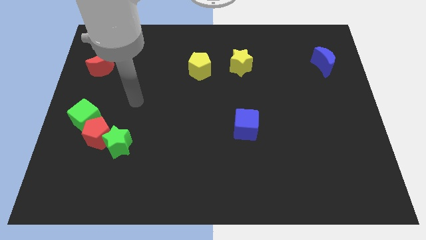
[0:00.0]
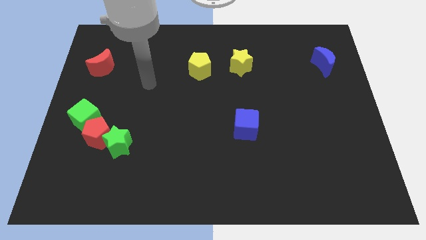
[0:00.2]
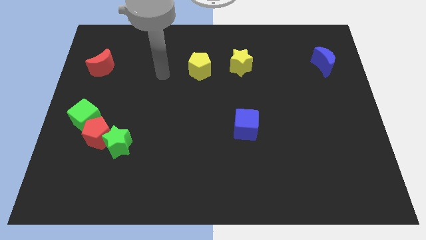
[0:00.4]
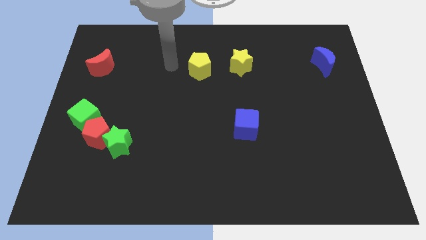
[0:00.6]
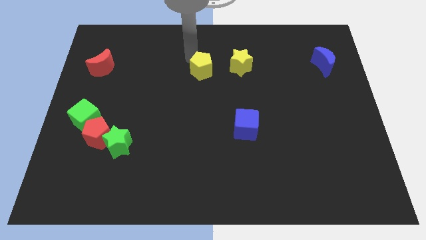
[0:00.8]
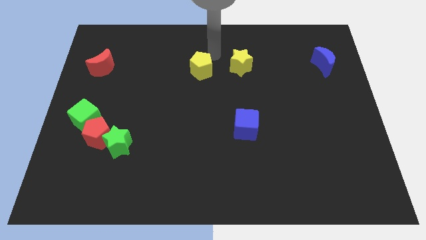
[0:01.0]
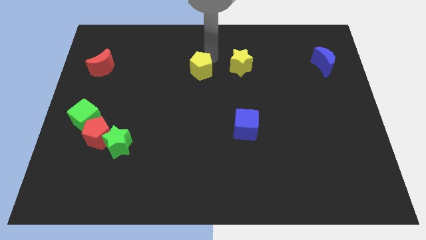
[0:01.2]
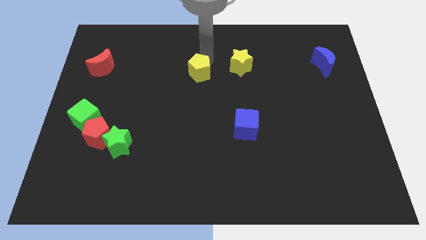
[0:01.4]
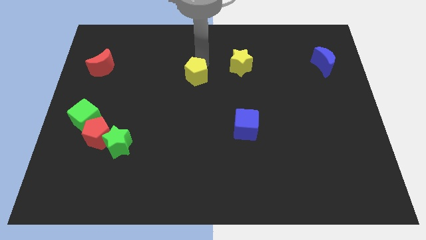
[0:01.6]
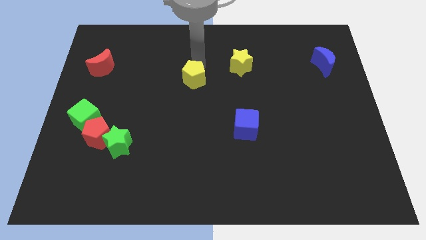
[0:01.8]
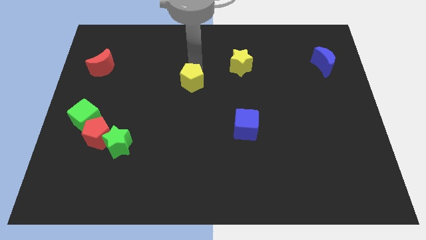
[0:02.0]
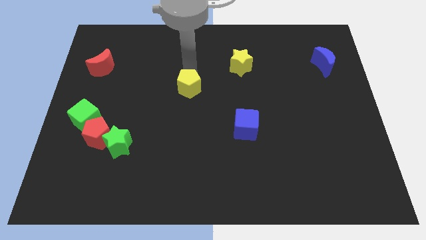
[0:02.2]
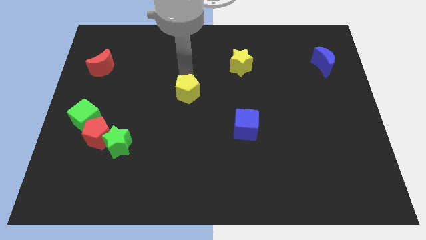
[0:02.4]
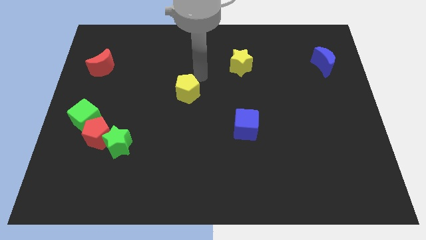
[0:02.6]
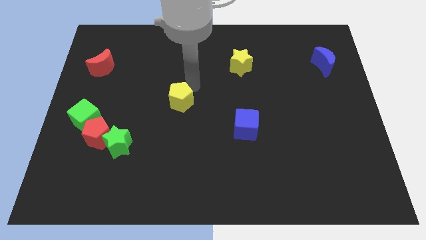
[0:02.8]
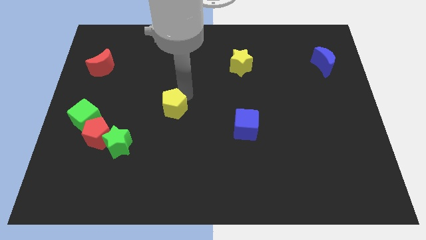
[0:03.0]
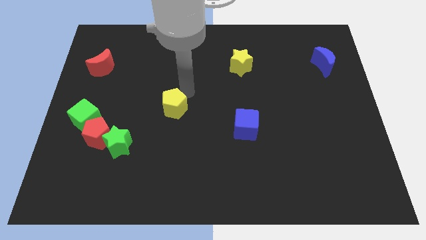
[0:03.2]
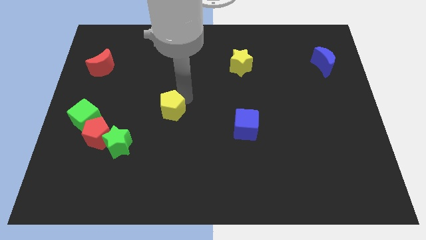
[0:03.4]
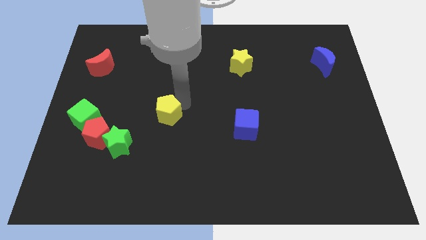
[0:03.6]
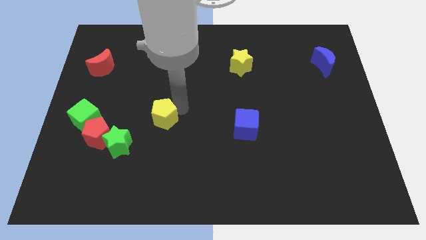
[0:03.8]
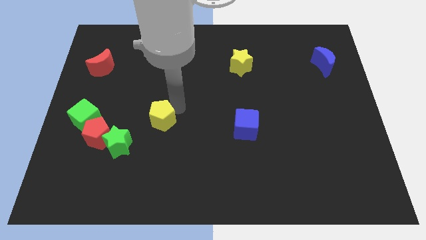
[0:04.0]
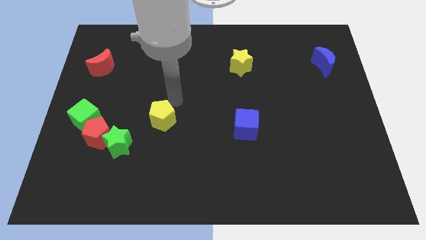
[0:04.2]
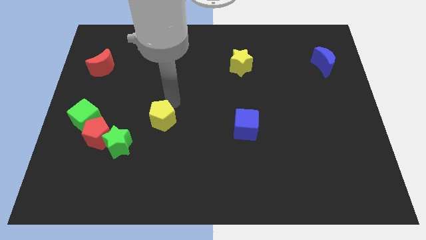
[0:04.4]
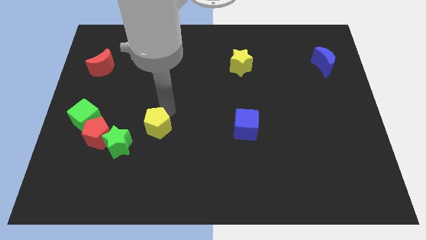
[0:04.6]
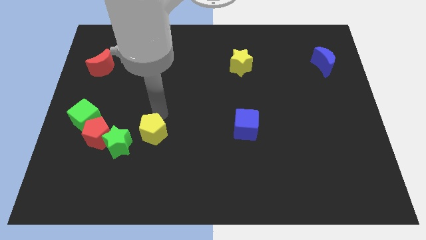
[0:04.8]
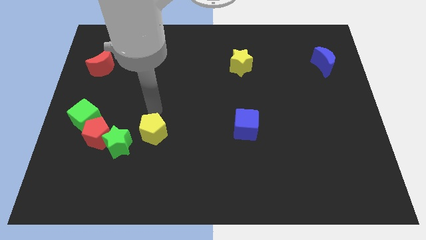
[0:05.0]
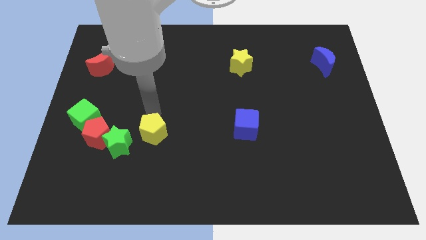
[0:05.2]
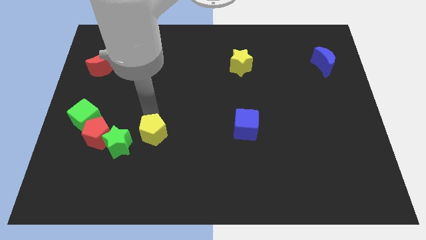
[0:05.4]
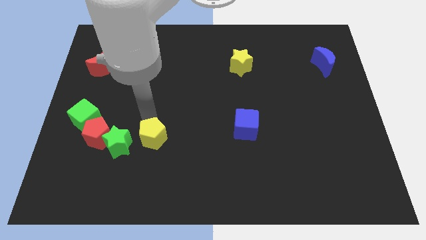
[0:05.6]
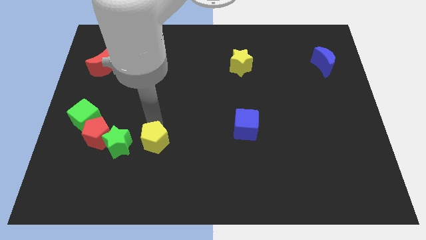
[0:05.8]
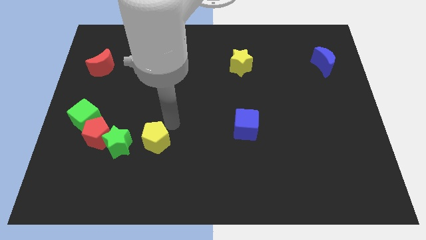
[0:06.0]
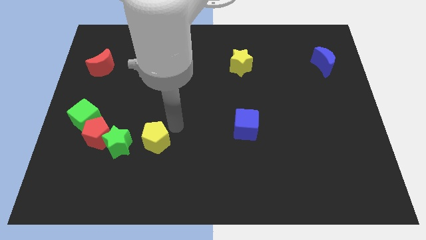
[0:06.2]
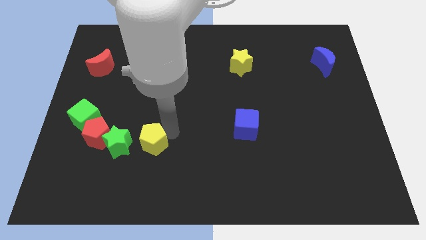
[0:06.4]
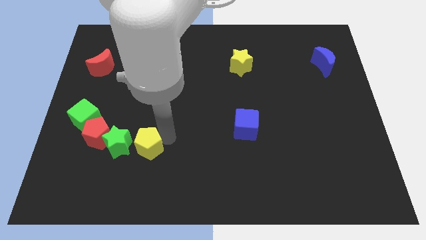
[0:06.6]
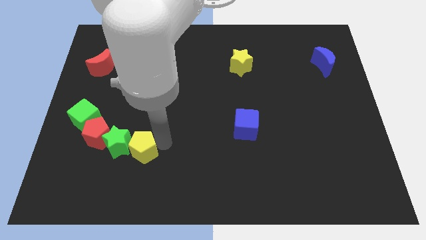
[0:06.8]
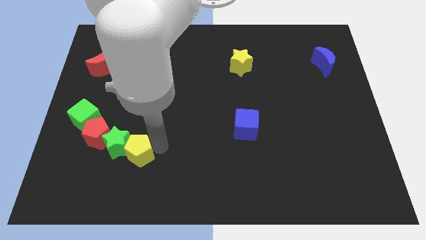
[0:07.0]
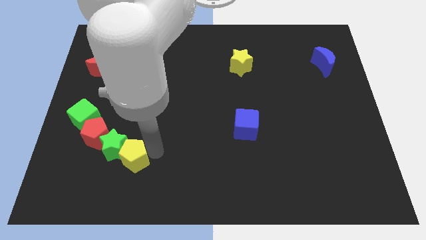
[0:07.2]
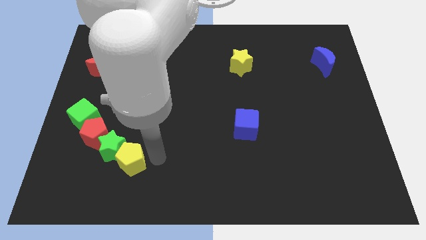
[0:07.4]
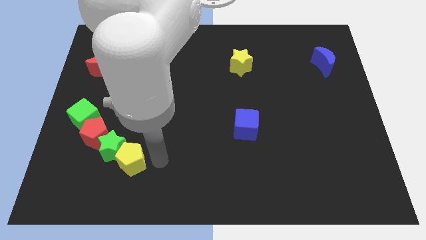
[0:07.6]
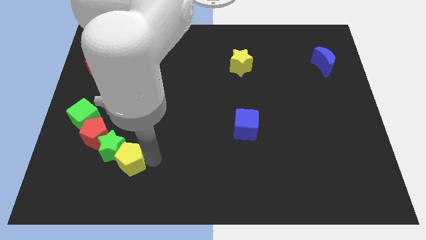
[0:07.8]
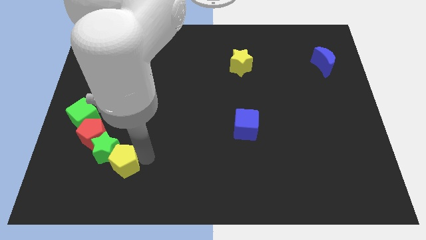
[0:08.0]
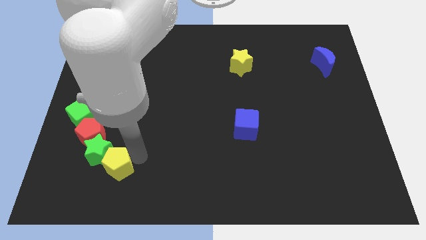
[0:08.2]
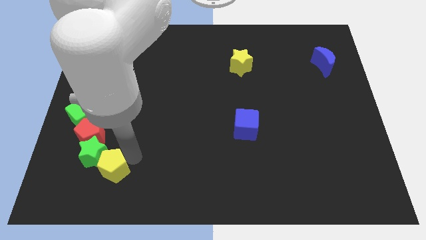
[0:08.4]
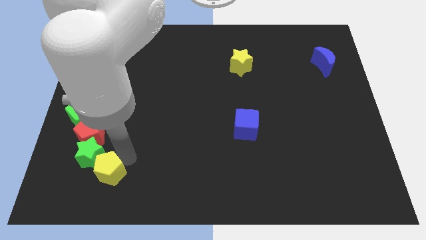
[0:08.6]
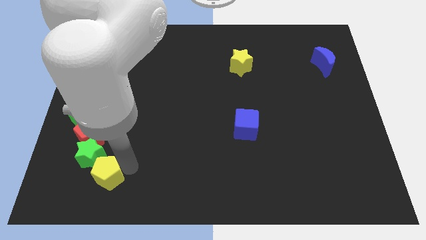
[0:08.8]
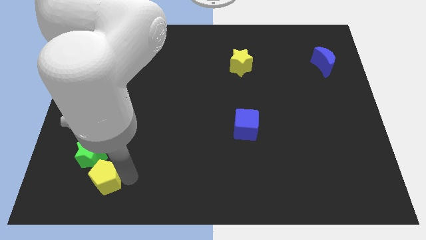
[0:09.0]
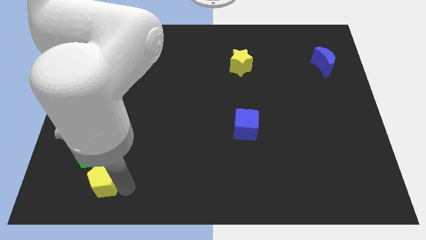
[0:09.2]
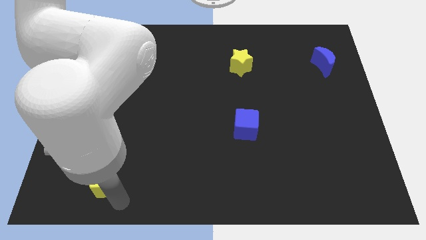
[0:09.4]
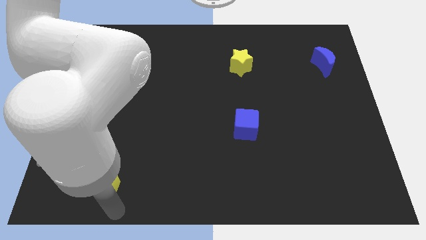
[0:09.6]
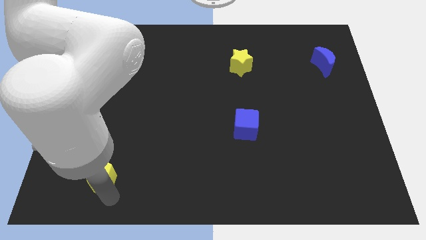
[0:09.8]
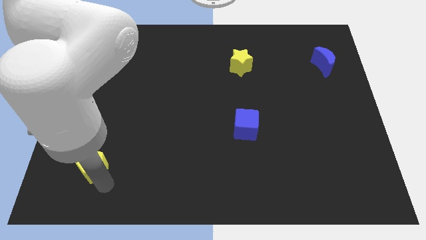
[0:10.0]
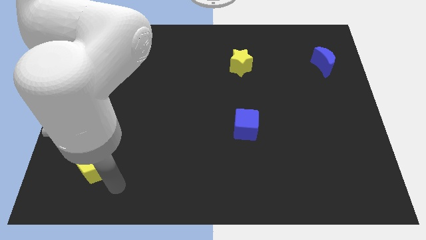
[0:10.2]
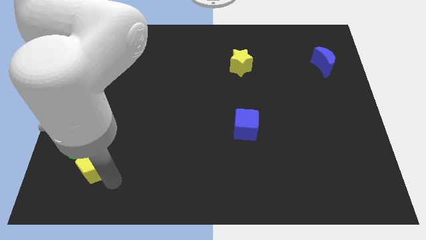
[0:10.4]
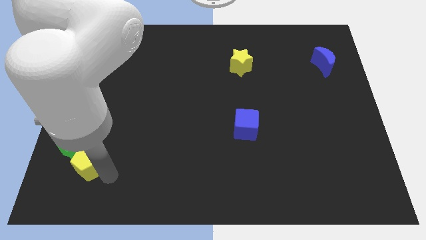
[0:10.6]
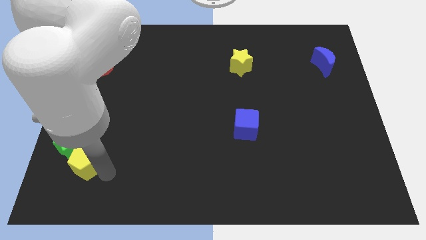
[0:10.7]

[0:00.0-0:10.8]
slide the yellow pentagon to the bottom side of the green cube

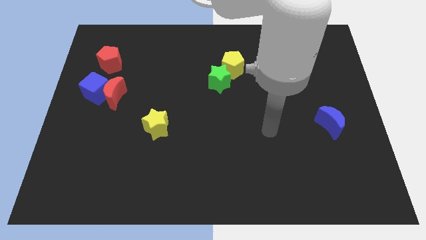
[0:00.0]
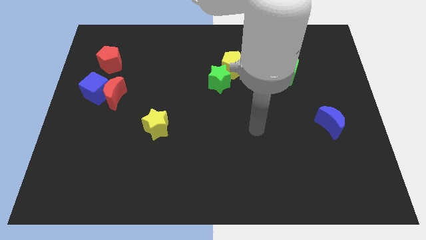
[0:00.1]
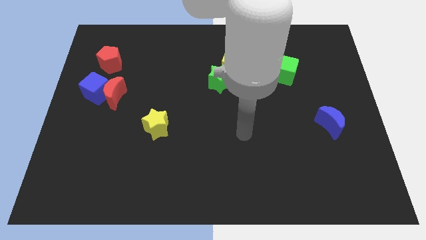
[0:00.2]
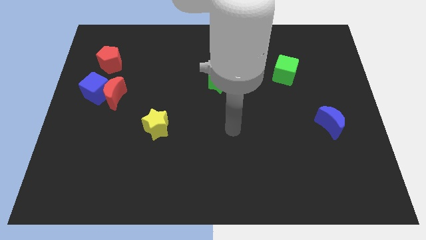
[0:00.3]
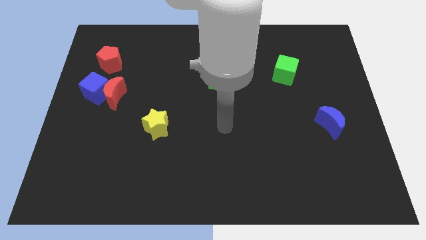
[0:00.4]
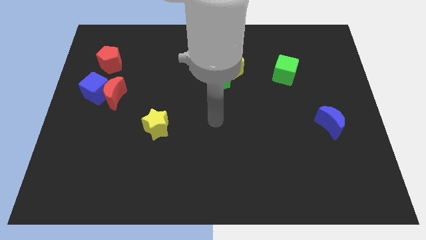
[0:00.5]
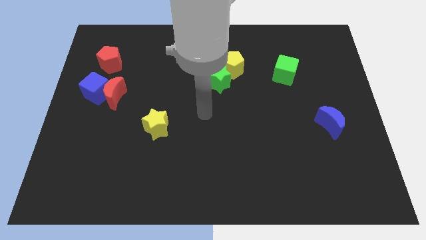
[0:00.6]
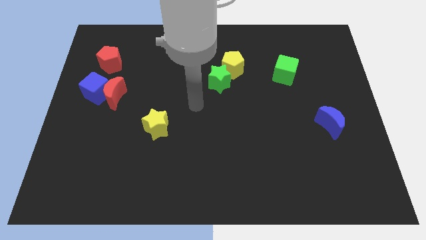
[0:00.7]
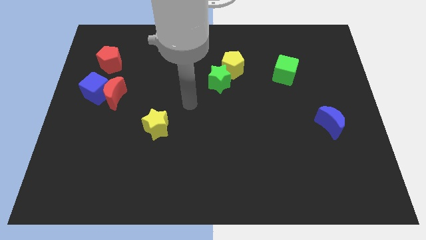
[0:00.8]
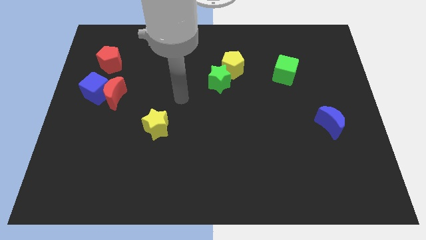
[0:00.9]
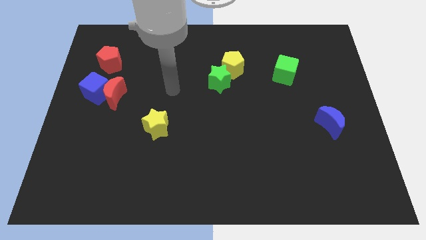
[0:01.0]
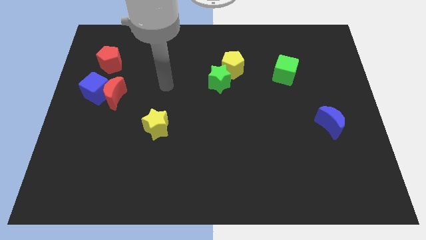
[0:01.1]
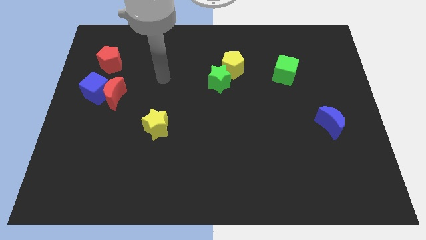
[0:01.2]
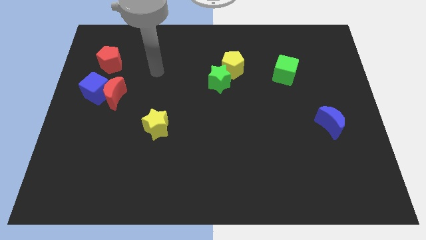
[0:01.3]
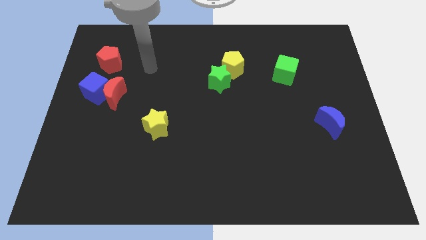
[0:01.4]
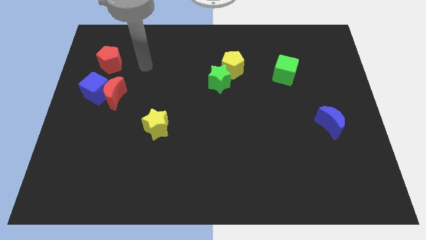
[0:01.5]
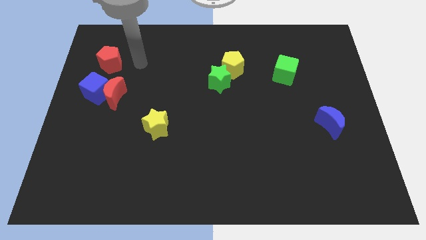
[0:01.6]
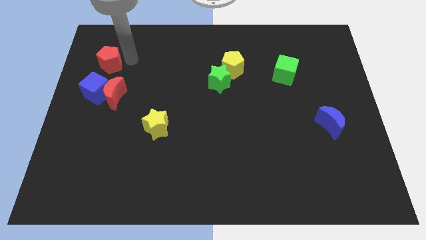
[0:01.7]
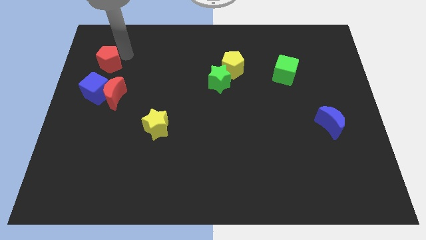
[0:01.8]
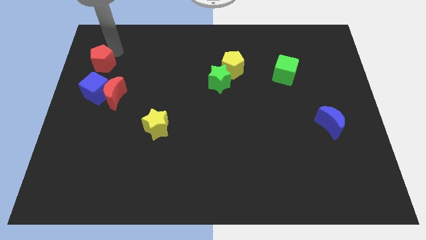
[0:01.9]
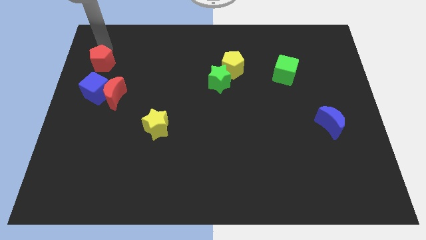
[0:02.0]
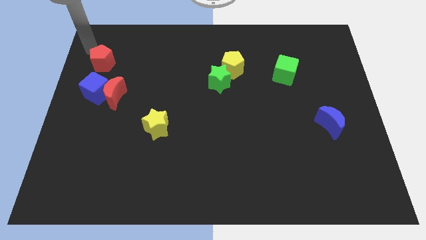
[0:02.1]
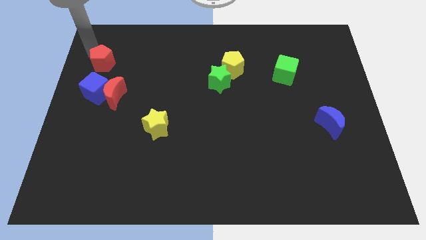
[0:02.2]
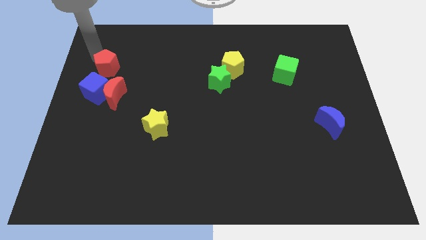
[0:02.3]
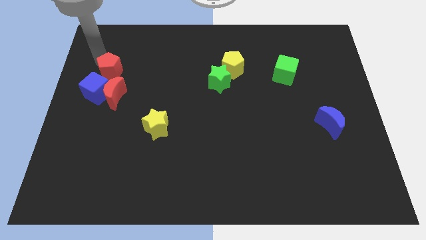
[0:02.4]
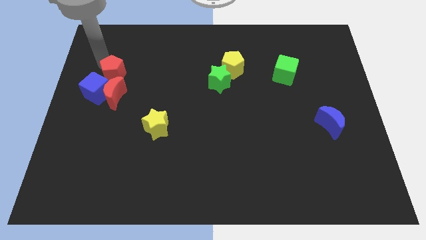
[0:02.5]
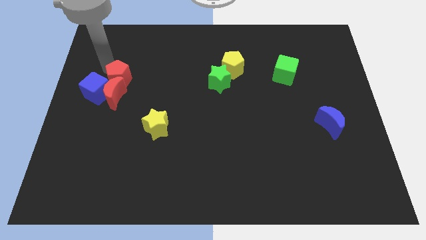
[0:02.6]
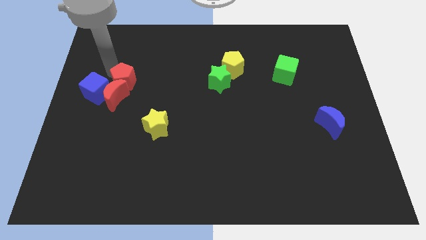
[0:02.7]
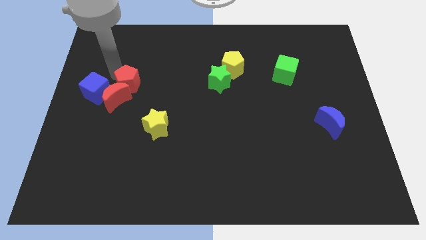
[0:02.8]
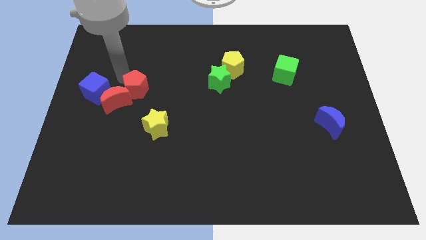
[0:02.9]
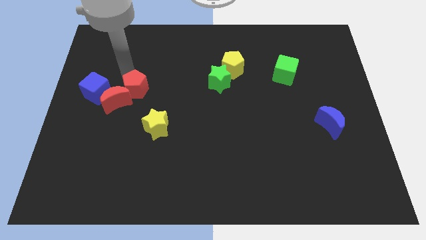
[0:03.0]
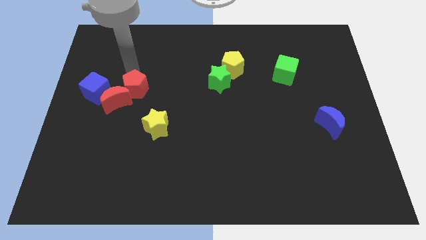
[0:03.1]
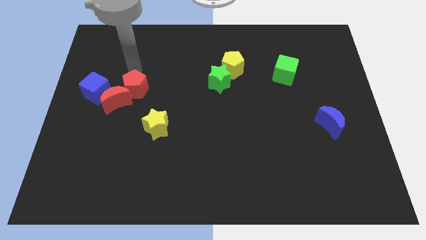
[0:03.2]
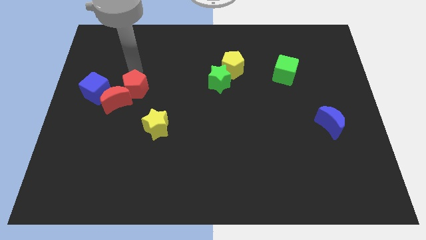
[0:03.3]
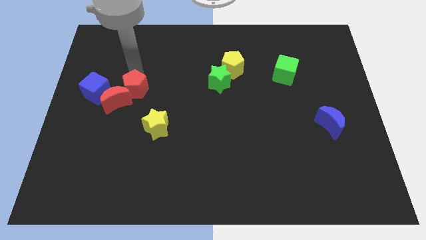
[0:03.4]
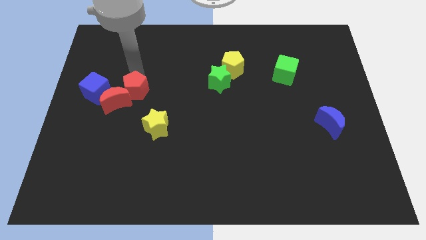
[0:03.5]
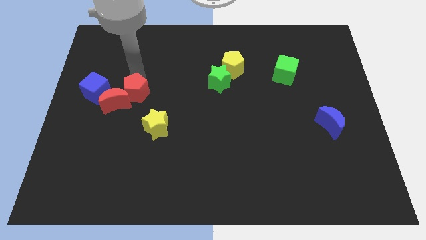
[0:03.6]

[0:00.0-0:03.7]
push the red pentagon to the top left of the yellow star
